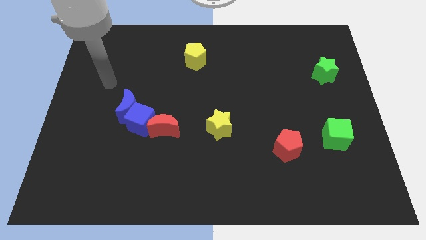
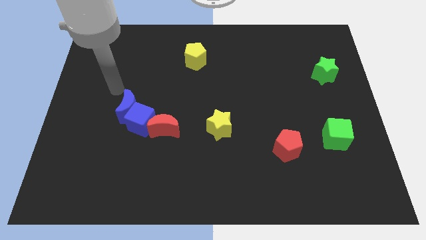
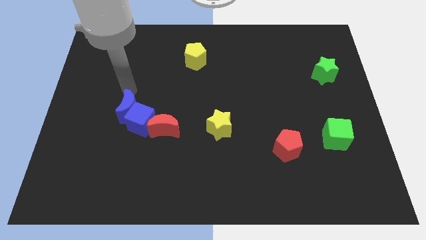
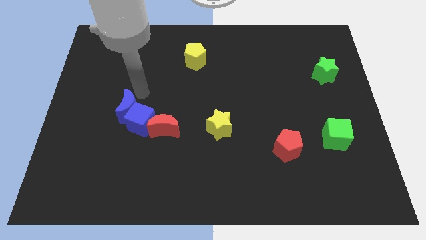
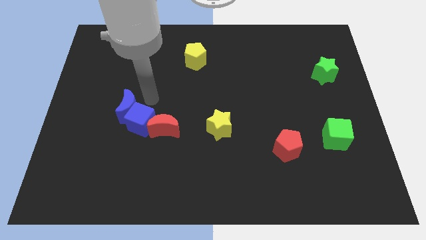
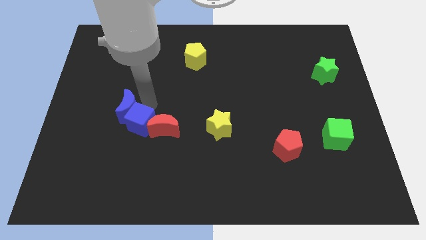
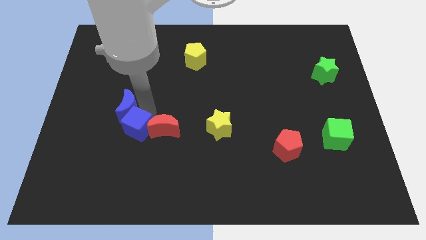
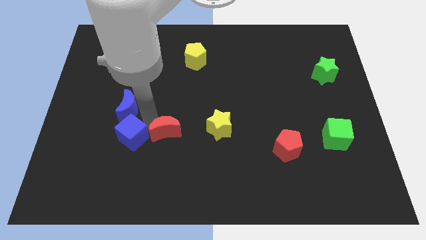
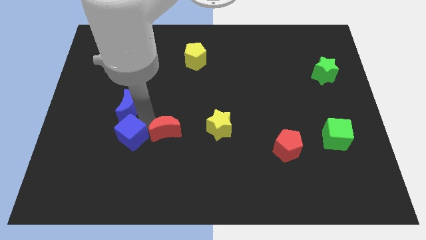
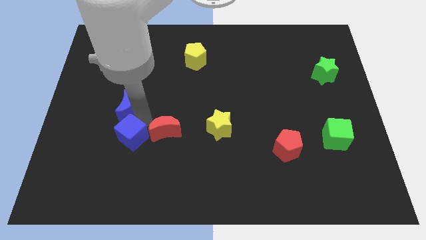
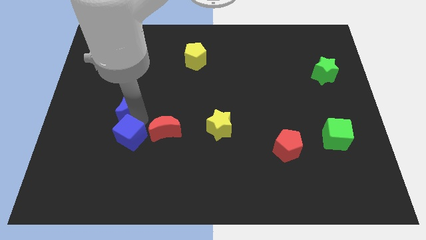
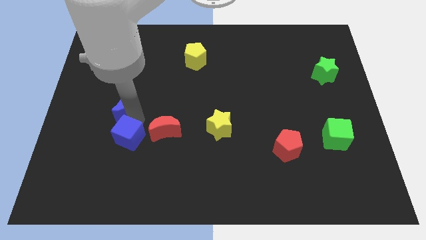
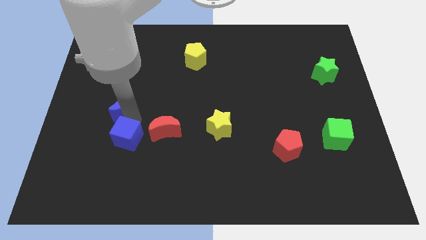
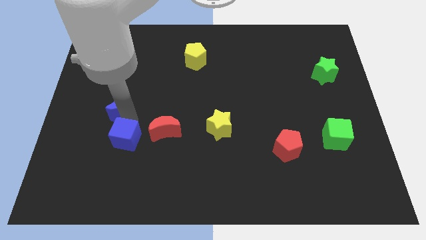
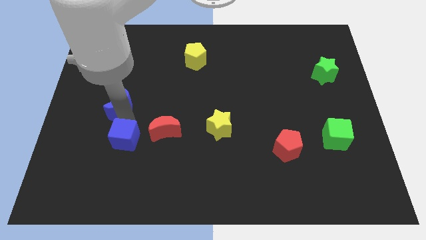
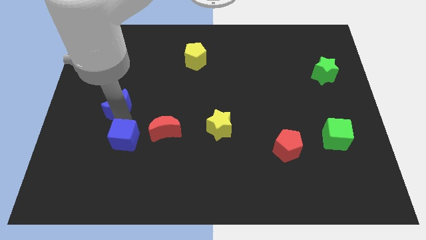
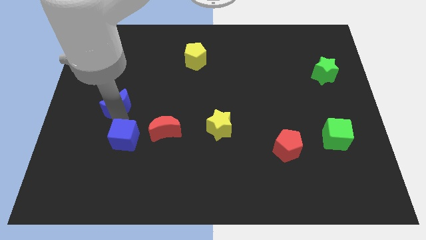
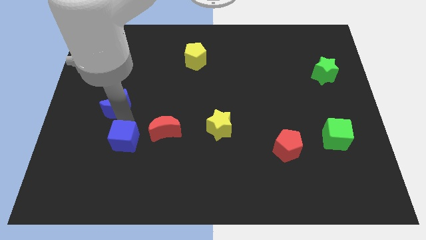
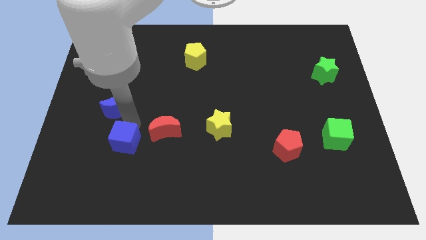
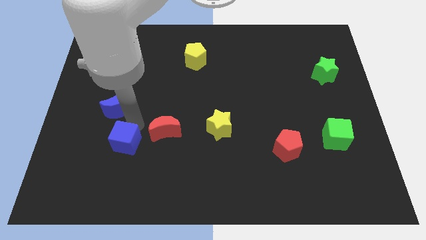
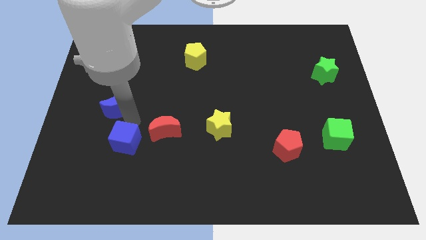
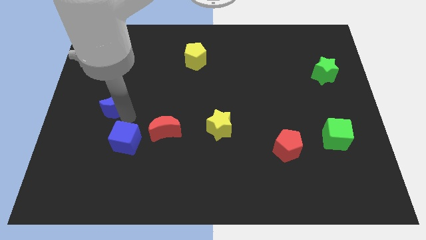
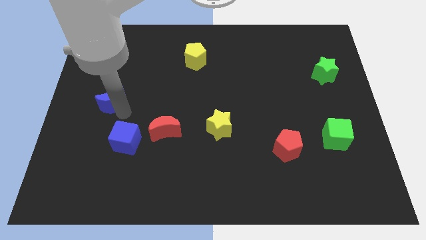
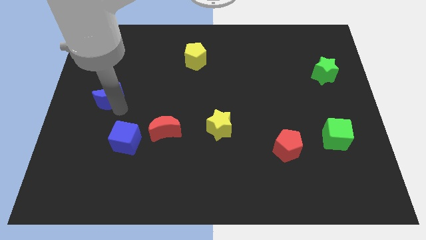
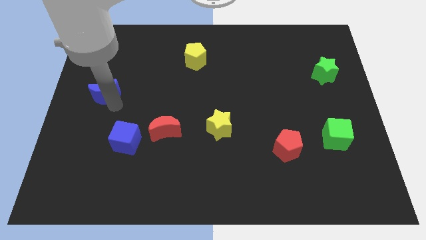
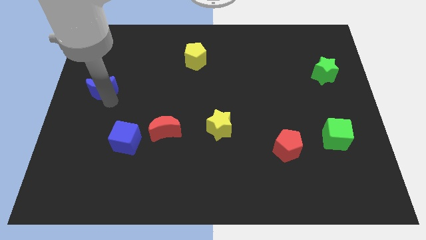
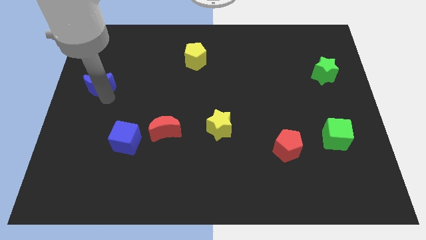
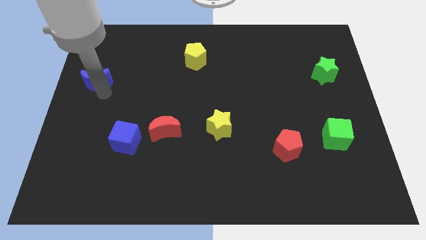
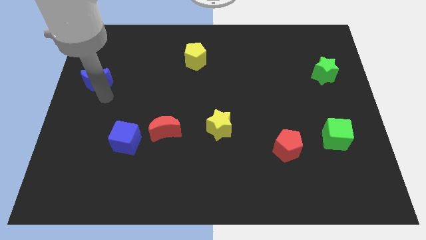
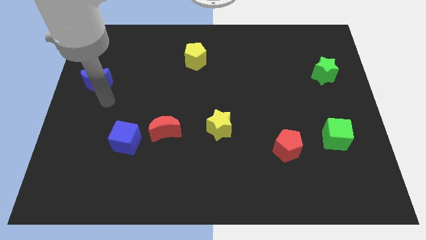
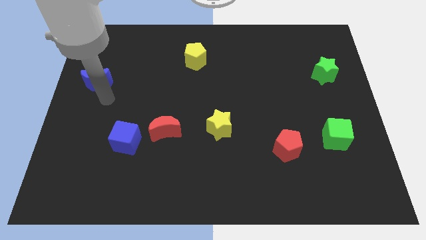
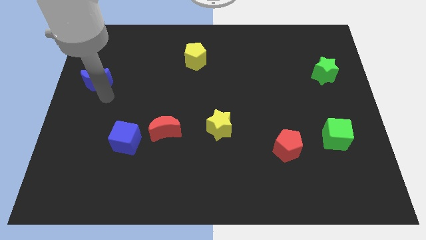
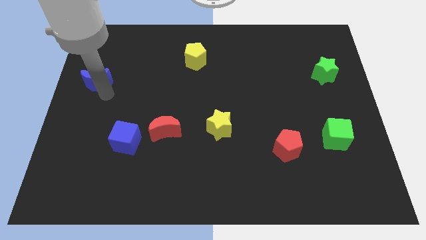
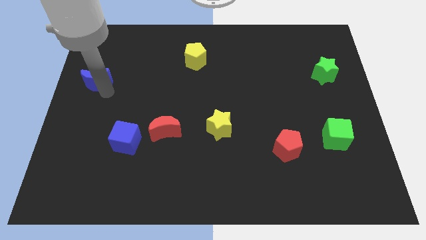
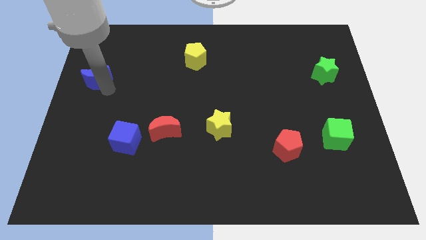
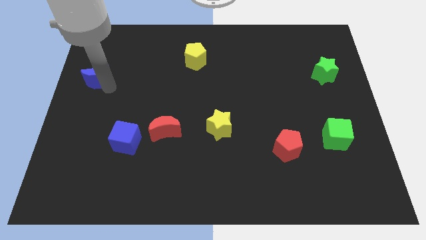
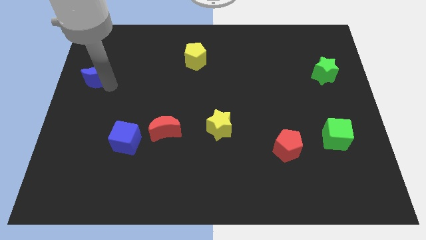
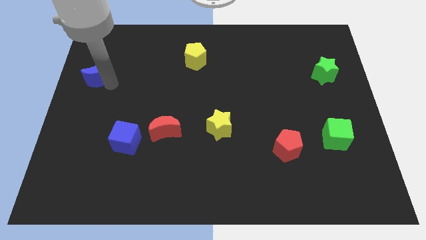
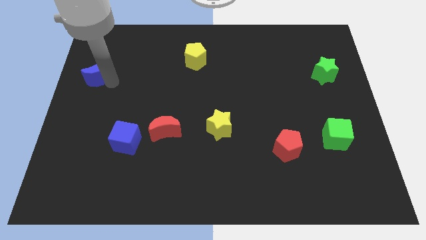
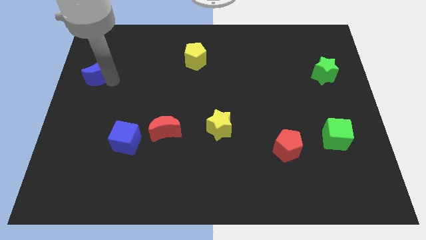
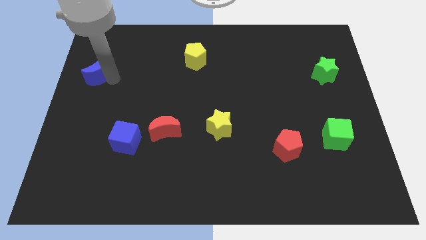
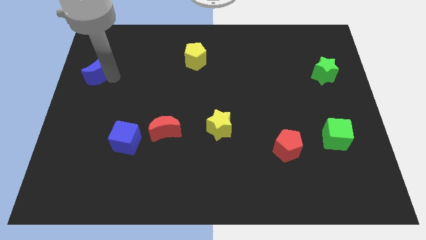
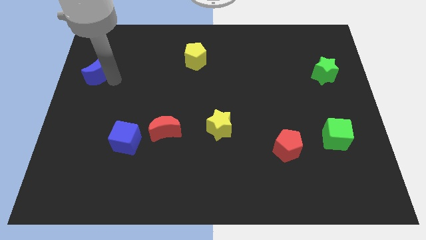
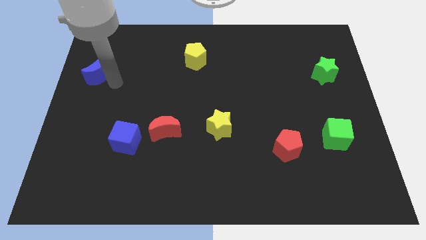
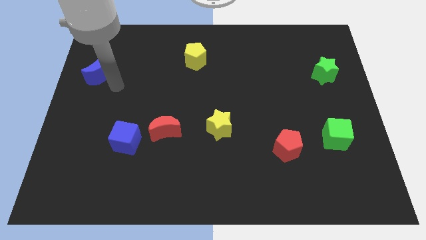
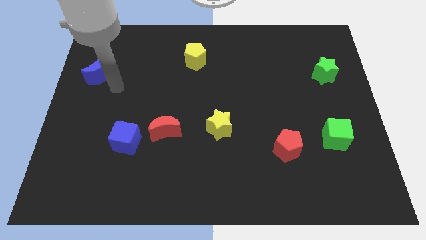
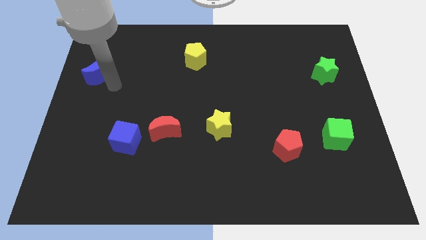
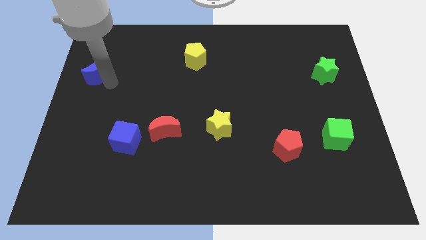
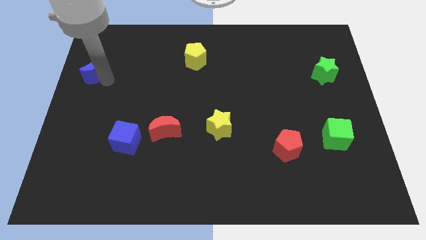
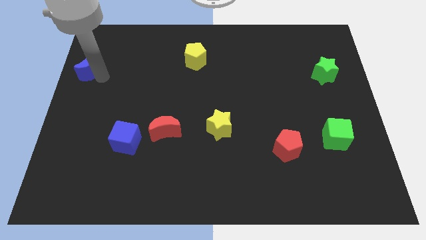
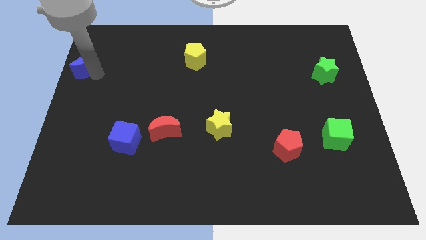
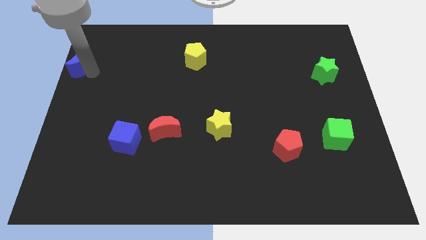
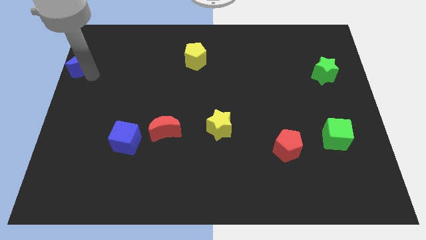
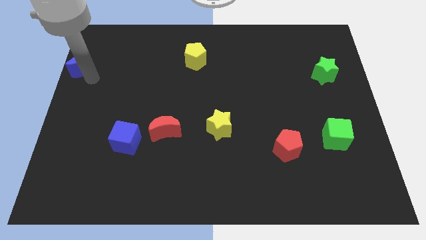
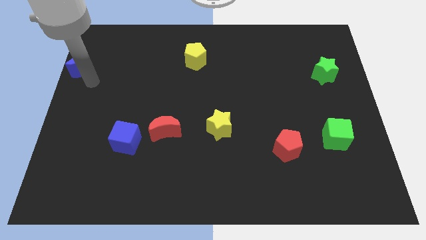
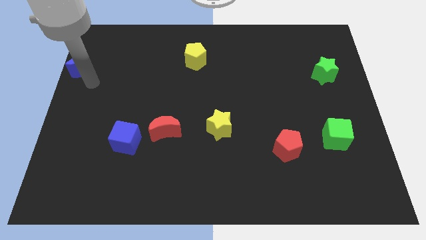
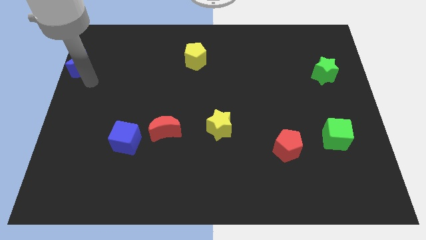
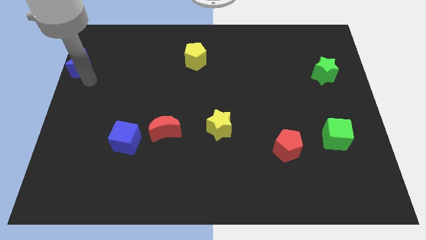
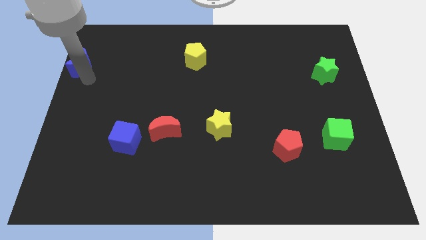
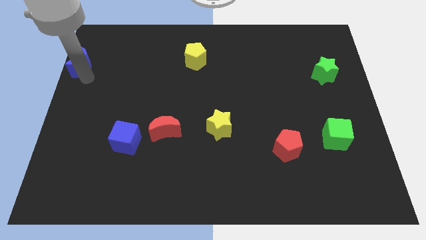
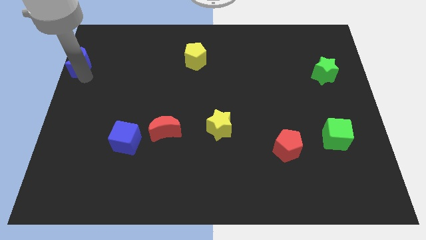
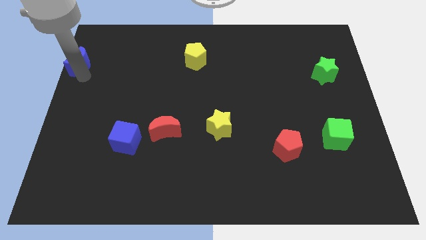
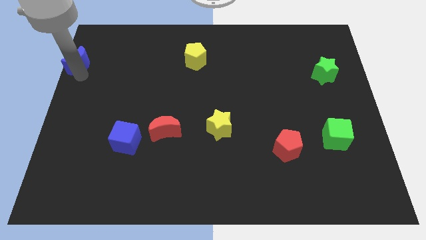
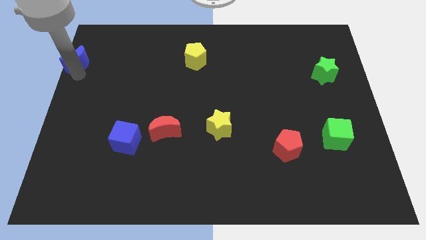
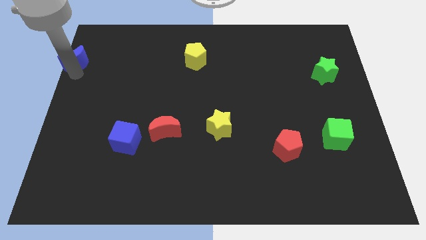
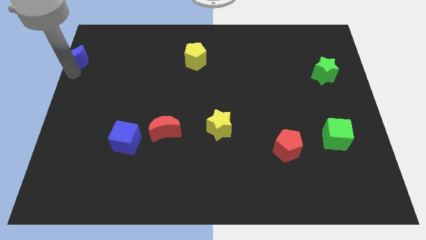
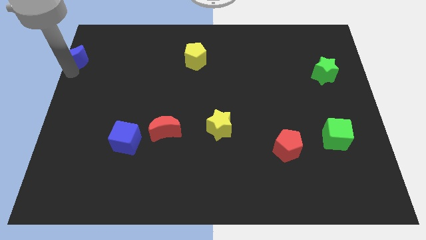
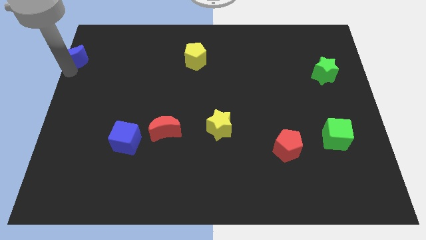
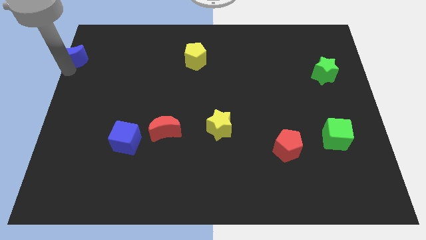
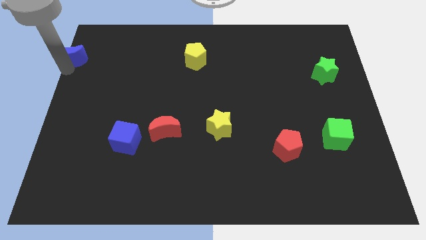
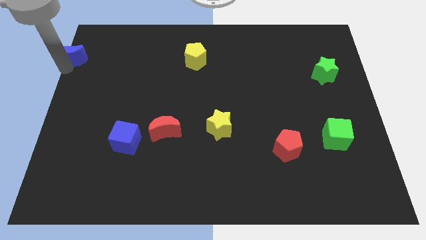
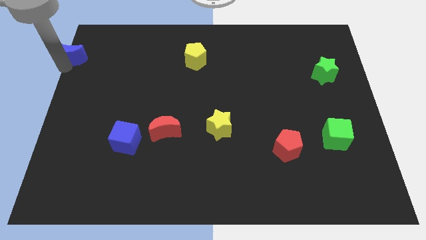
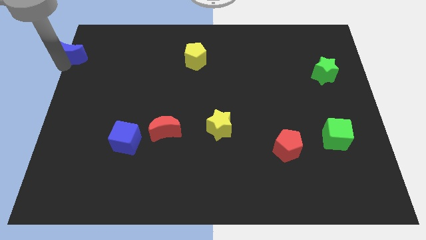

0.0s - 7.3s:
put the blue moon to the top left corner
